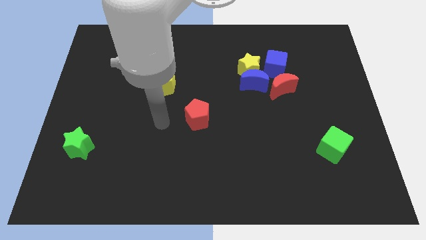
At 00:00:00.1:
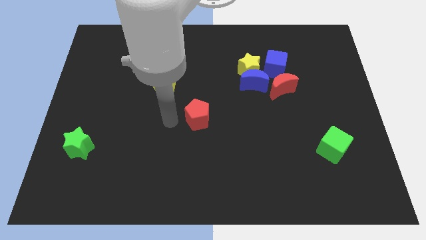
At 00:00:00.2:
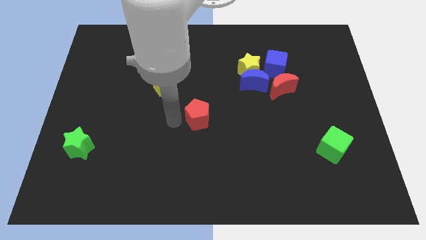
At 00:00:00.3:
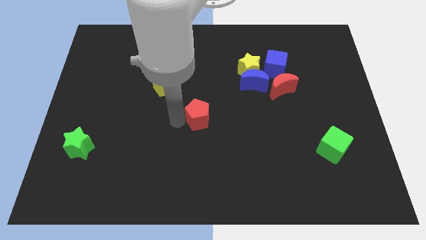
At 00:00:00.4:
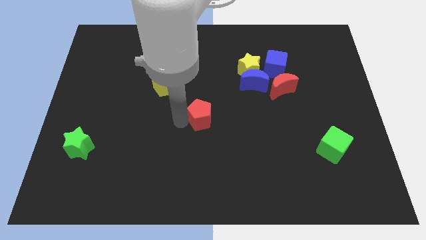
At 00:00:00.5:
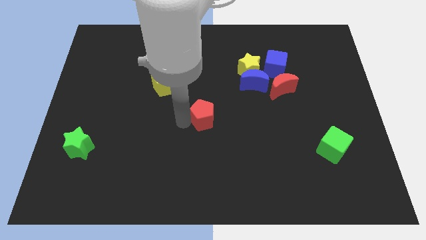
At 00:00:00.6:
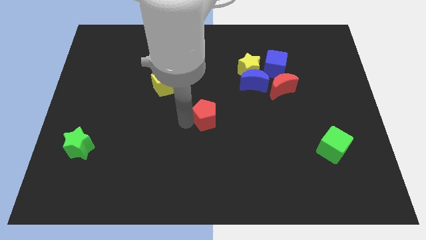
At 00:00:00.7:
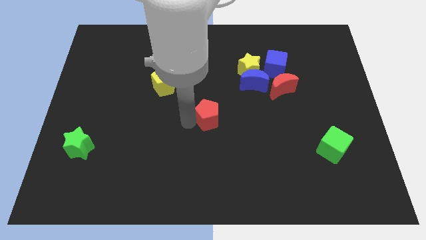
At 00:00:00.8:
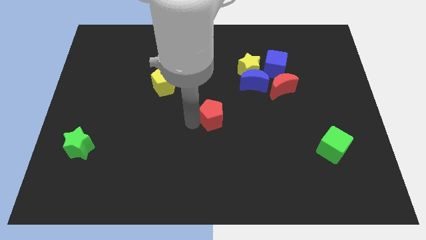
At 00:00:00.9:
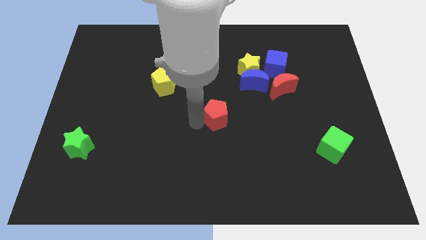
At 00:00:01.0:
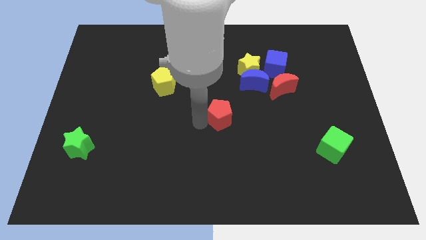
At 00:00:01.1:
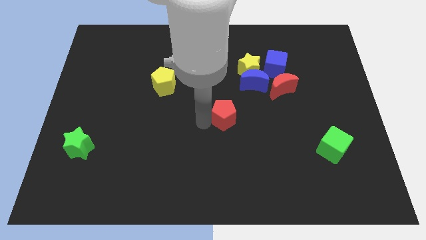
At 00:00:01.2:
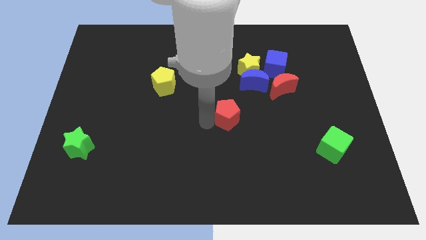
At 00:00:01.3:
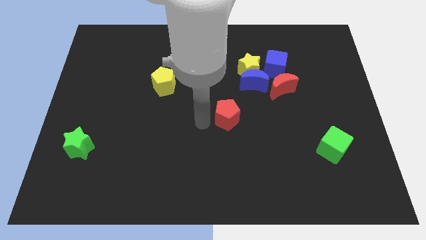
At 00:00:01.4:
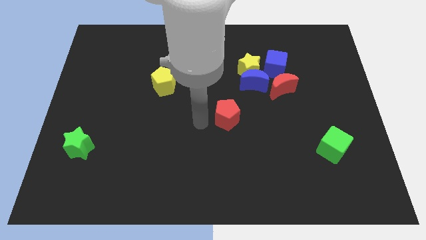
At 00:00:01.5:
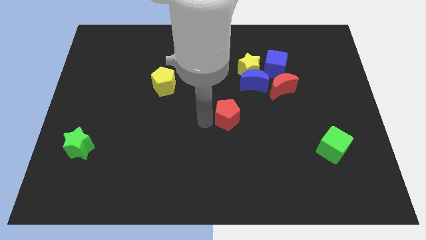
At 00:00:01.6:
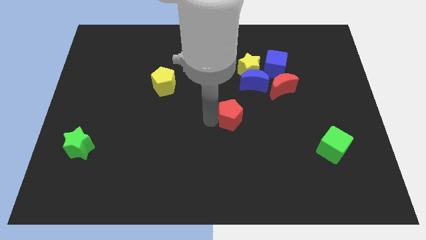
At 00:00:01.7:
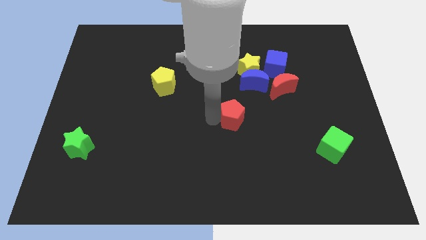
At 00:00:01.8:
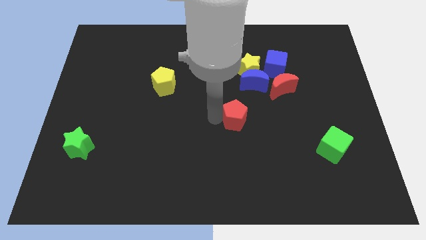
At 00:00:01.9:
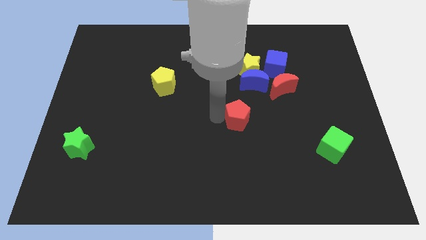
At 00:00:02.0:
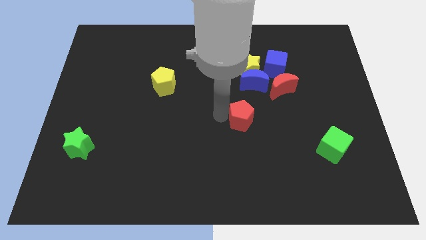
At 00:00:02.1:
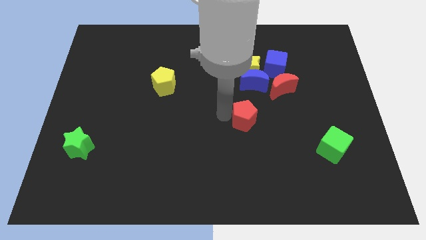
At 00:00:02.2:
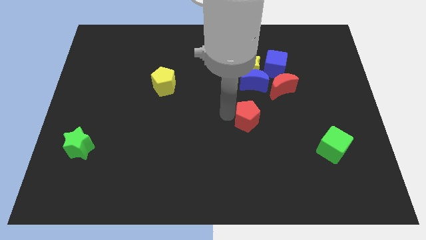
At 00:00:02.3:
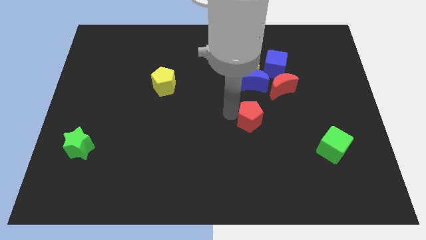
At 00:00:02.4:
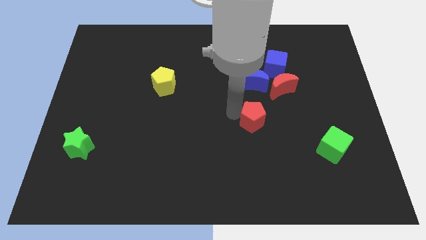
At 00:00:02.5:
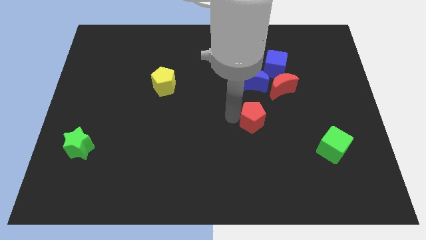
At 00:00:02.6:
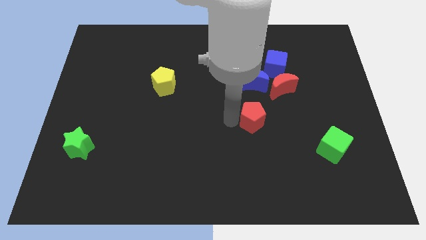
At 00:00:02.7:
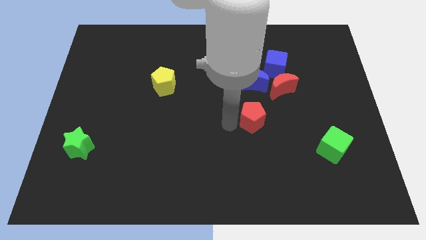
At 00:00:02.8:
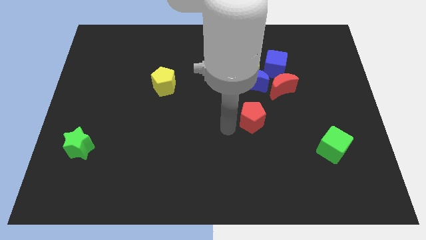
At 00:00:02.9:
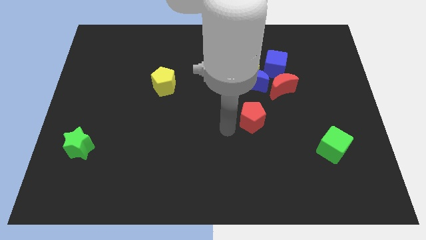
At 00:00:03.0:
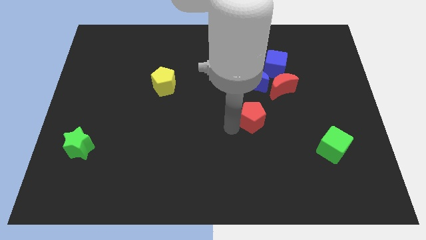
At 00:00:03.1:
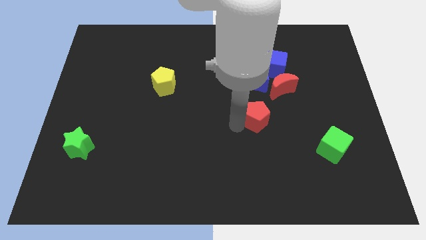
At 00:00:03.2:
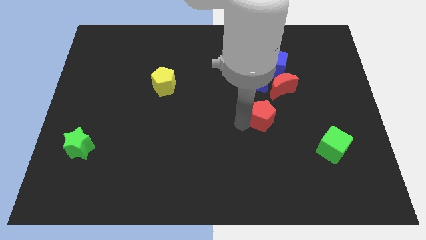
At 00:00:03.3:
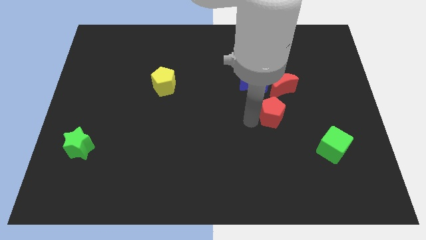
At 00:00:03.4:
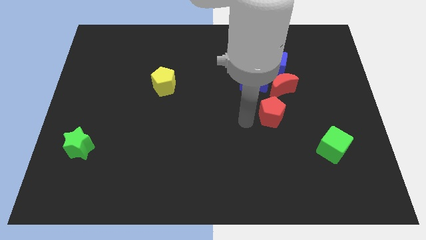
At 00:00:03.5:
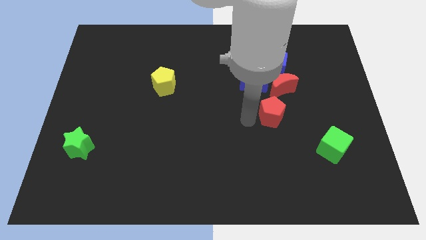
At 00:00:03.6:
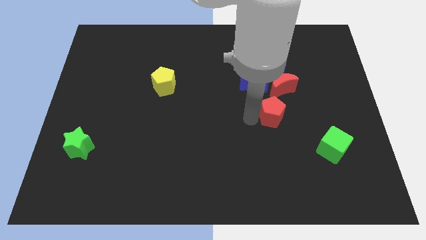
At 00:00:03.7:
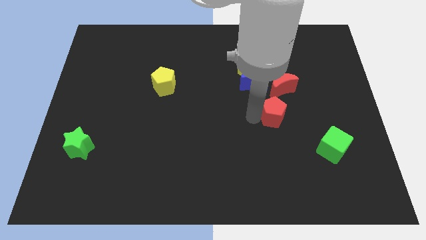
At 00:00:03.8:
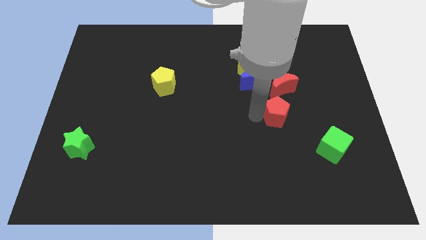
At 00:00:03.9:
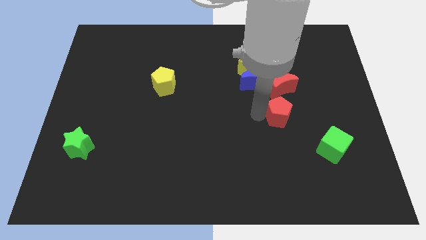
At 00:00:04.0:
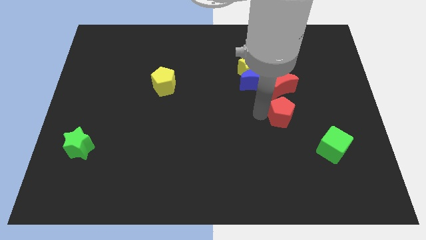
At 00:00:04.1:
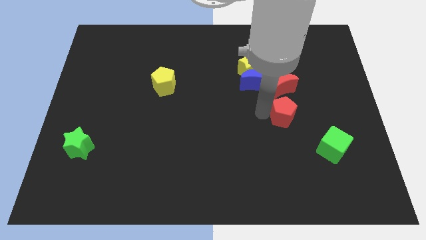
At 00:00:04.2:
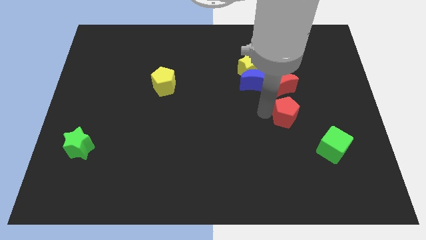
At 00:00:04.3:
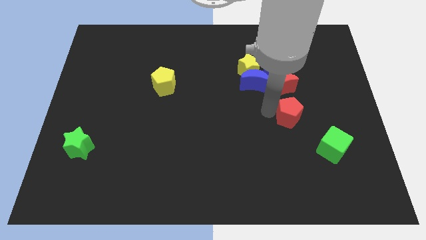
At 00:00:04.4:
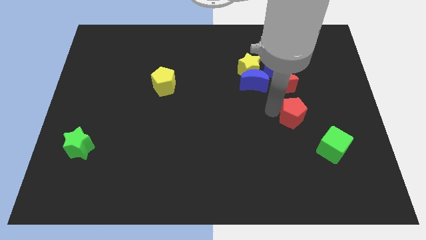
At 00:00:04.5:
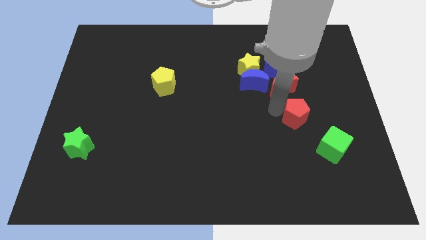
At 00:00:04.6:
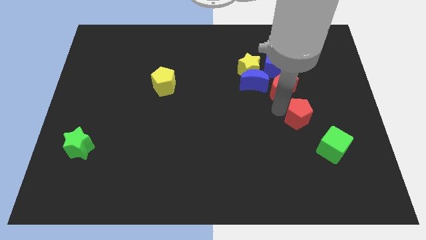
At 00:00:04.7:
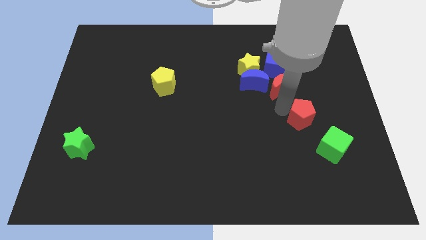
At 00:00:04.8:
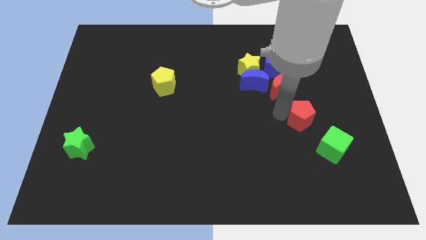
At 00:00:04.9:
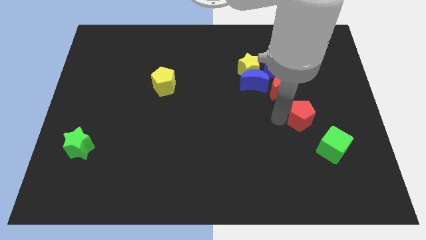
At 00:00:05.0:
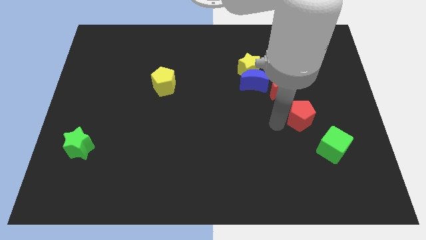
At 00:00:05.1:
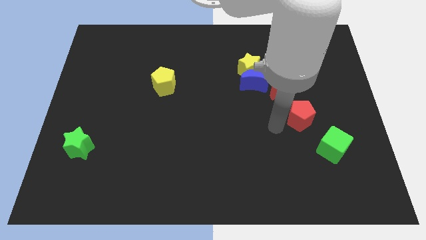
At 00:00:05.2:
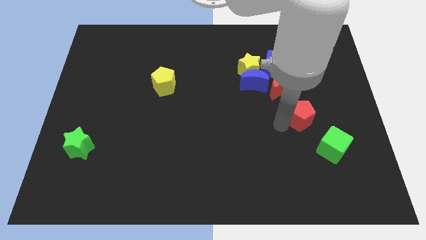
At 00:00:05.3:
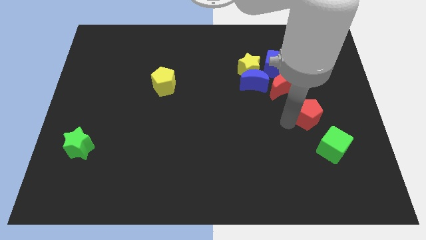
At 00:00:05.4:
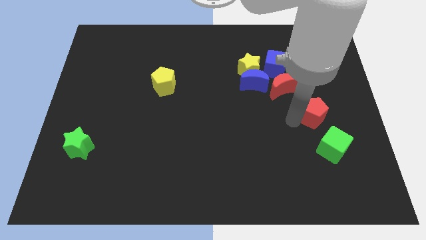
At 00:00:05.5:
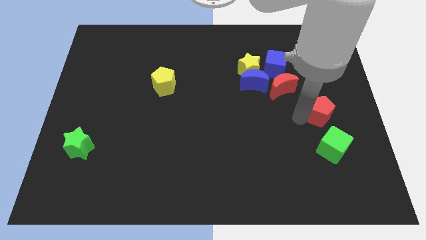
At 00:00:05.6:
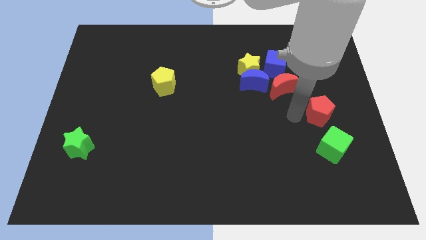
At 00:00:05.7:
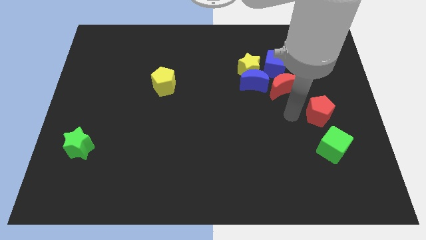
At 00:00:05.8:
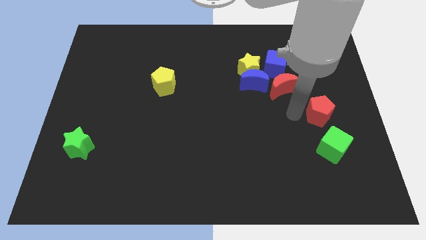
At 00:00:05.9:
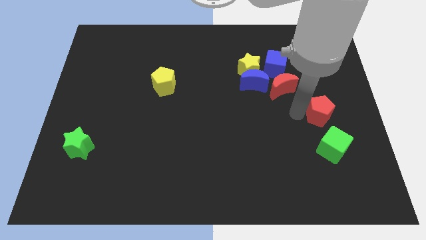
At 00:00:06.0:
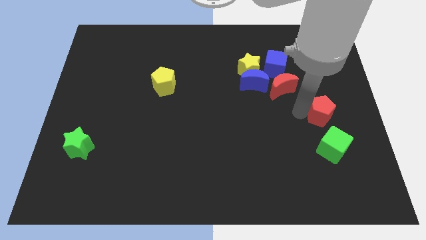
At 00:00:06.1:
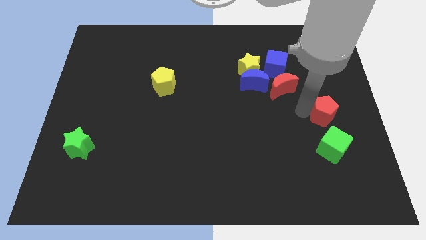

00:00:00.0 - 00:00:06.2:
slide the red pentagon to the center right

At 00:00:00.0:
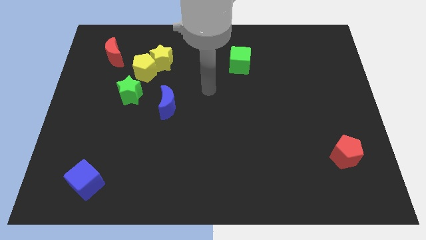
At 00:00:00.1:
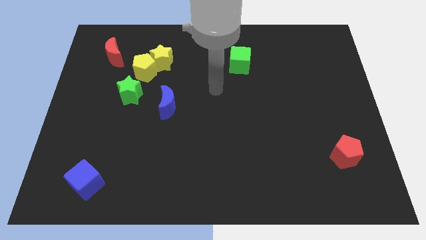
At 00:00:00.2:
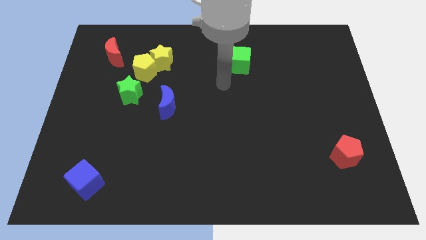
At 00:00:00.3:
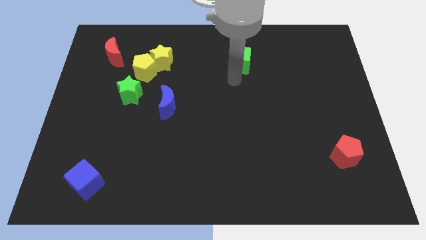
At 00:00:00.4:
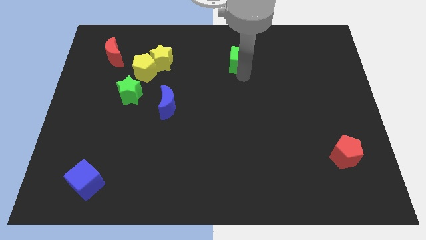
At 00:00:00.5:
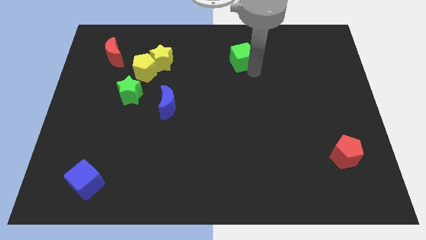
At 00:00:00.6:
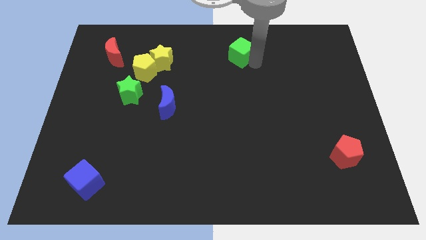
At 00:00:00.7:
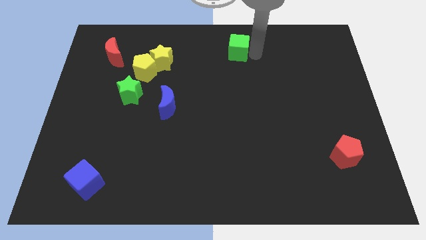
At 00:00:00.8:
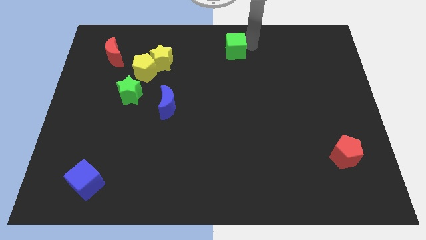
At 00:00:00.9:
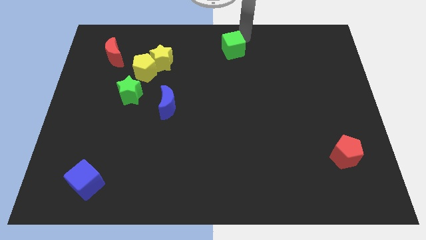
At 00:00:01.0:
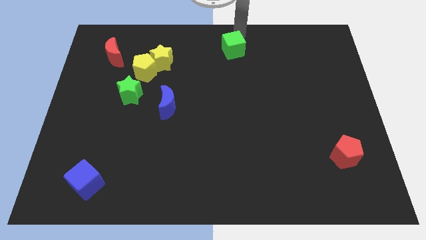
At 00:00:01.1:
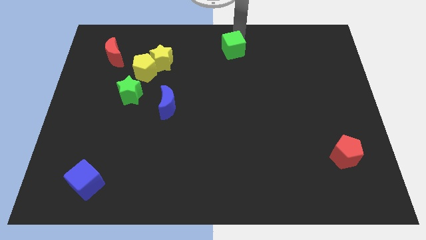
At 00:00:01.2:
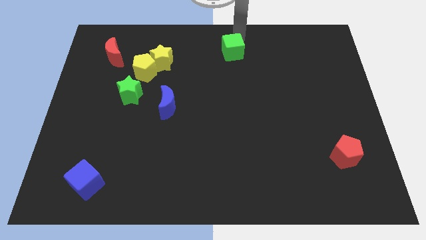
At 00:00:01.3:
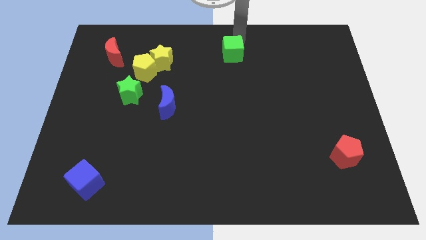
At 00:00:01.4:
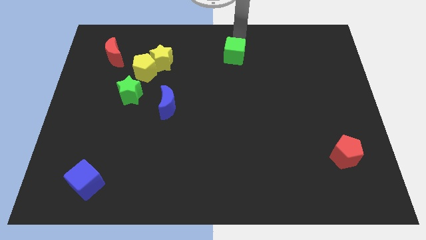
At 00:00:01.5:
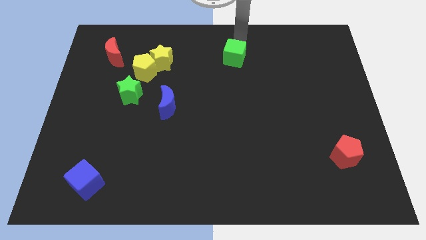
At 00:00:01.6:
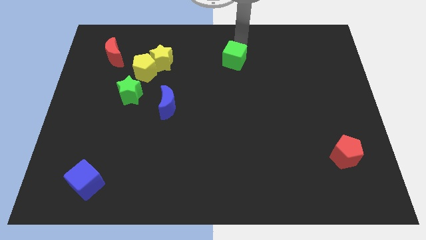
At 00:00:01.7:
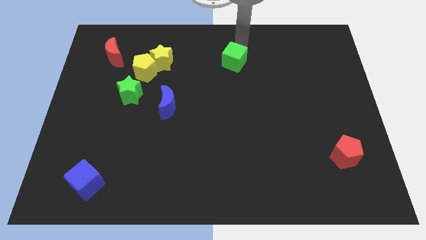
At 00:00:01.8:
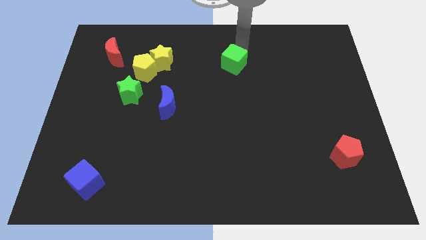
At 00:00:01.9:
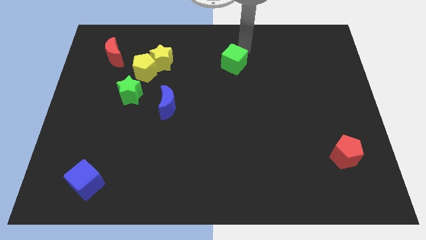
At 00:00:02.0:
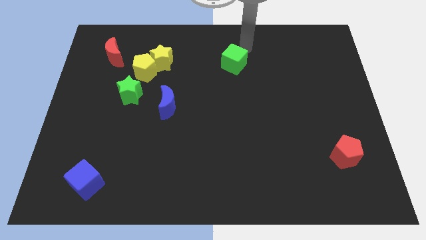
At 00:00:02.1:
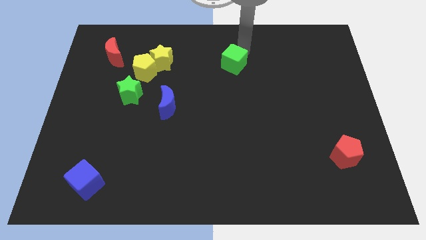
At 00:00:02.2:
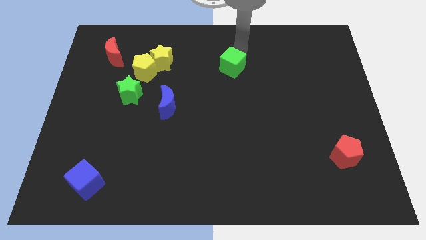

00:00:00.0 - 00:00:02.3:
move the green cube to the middle
